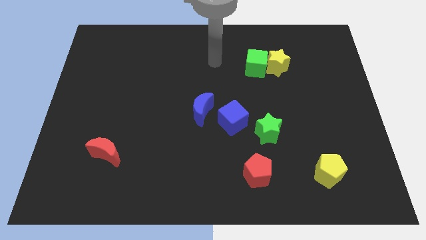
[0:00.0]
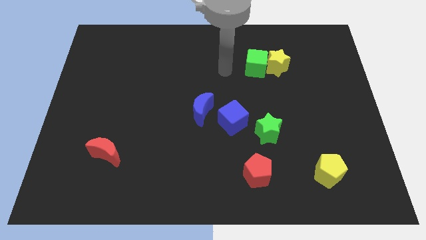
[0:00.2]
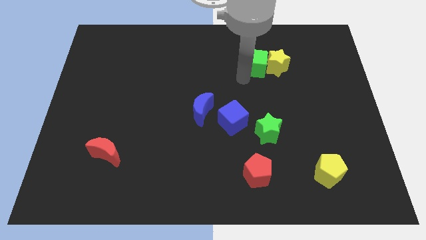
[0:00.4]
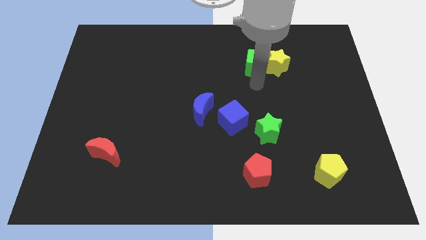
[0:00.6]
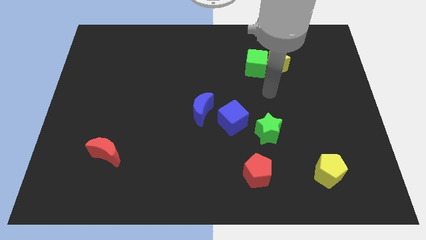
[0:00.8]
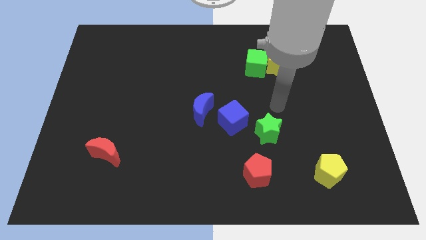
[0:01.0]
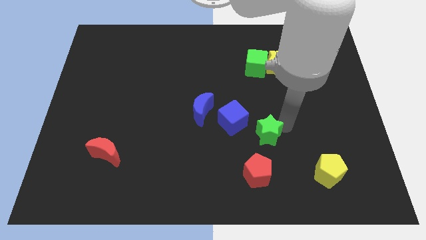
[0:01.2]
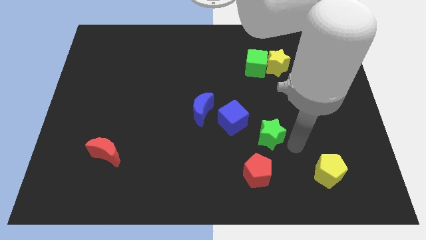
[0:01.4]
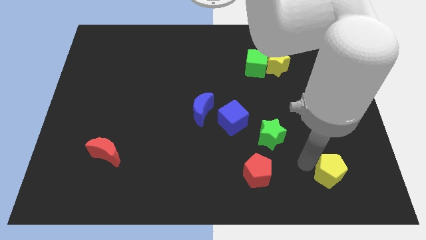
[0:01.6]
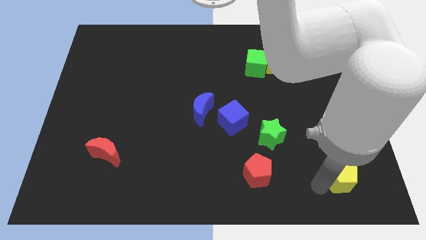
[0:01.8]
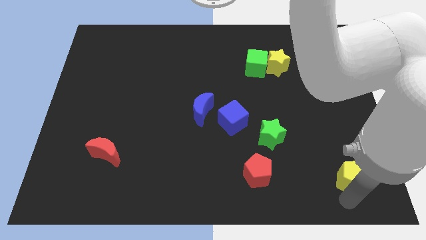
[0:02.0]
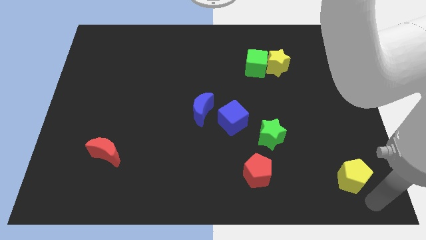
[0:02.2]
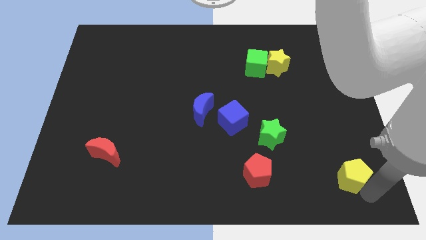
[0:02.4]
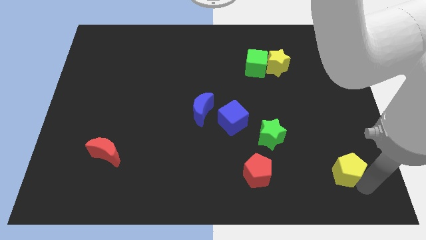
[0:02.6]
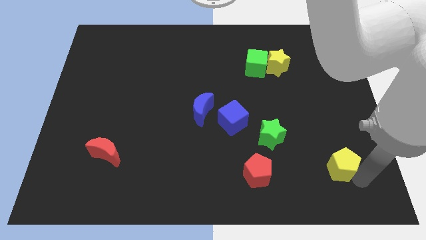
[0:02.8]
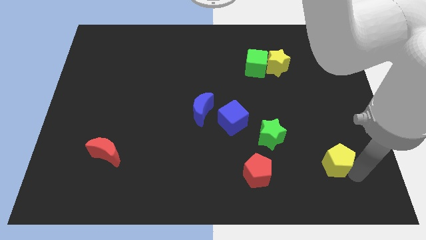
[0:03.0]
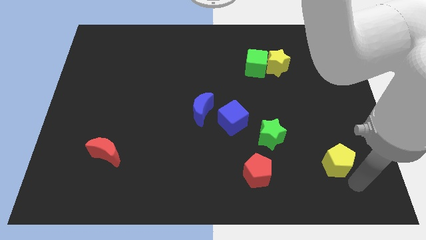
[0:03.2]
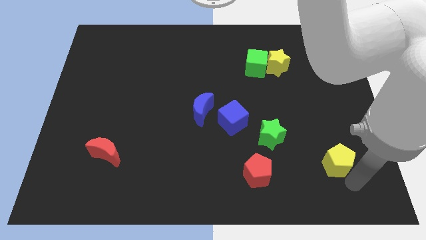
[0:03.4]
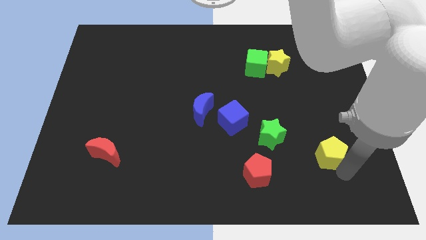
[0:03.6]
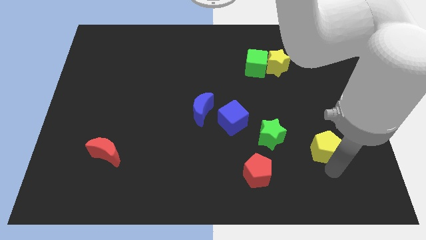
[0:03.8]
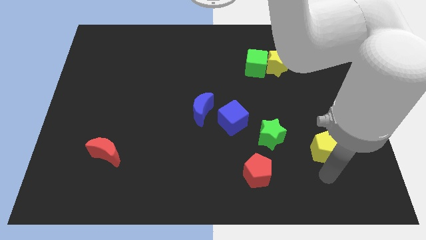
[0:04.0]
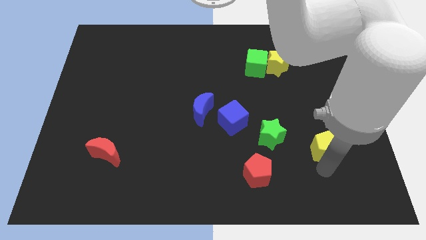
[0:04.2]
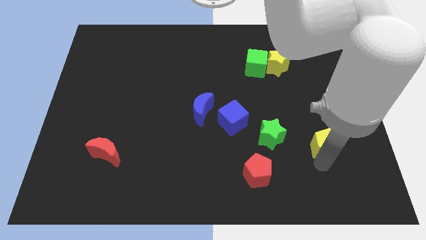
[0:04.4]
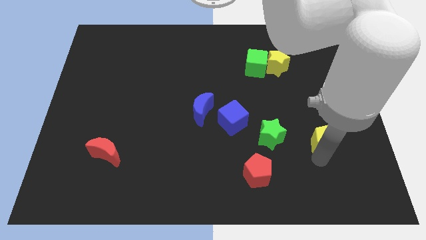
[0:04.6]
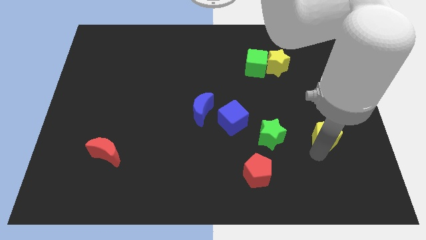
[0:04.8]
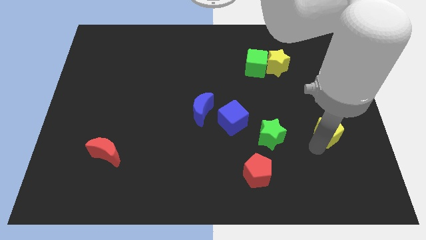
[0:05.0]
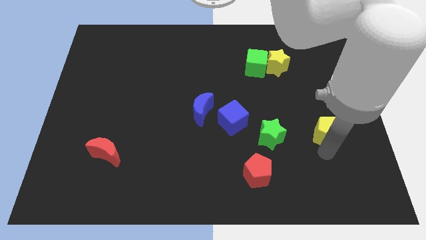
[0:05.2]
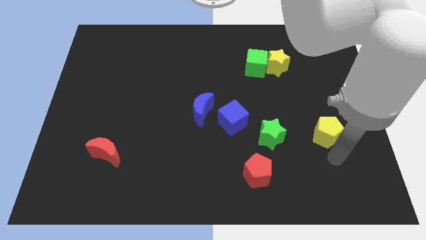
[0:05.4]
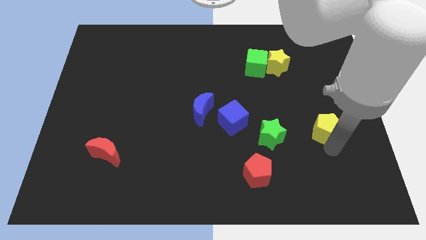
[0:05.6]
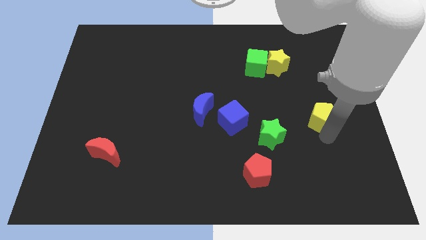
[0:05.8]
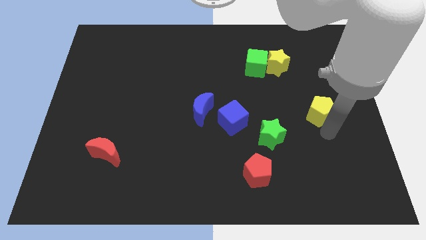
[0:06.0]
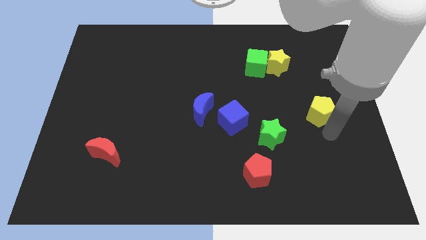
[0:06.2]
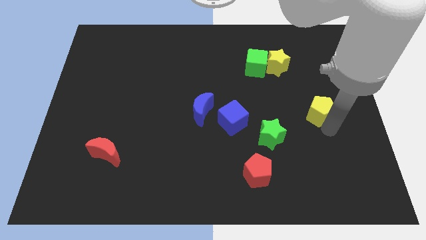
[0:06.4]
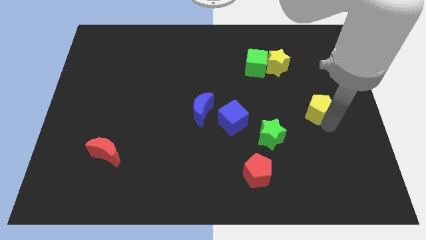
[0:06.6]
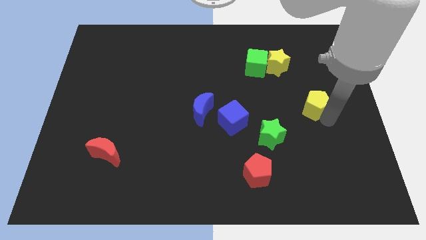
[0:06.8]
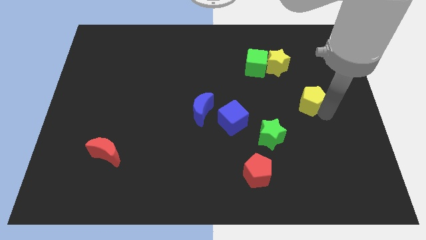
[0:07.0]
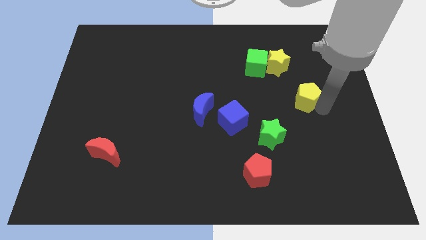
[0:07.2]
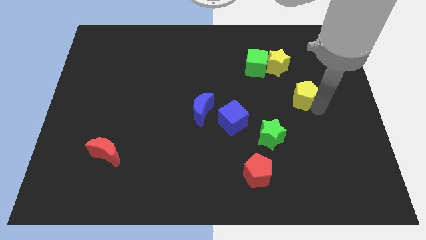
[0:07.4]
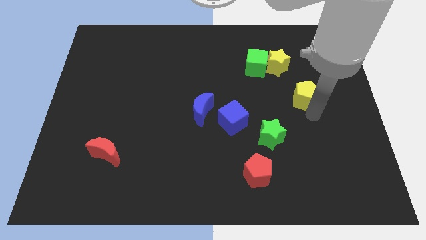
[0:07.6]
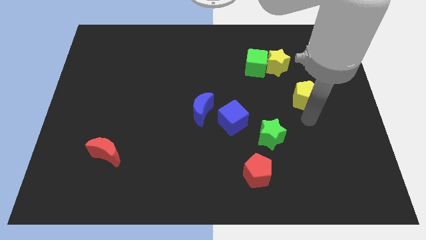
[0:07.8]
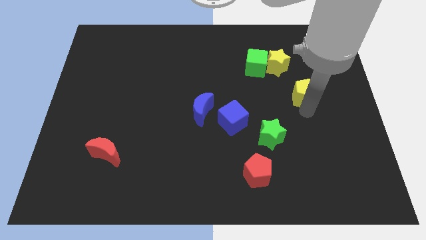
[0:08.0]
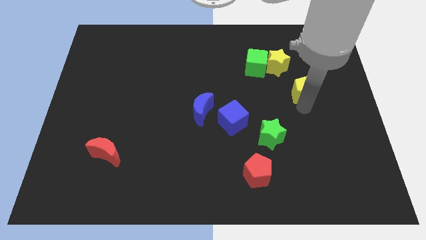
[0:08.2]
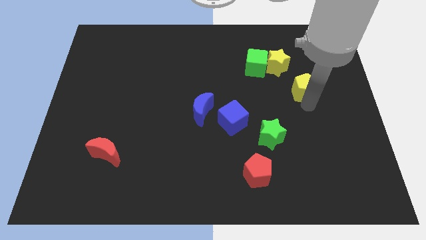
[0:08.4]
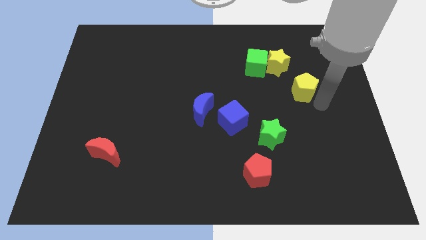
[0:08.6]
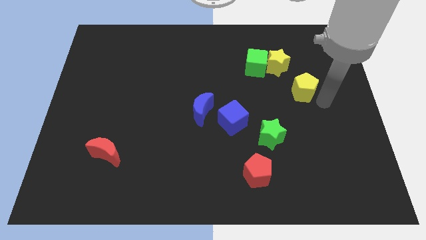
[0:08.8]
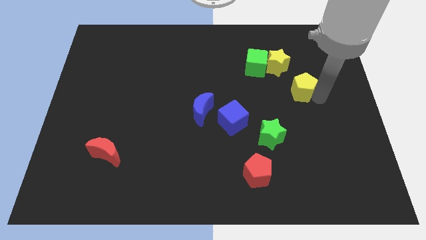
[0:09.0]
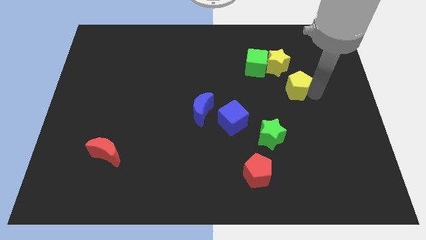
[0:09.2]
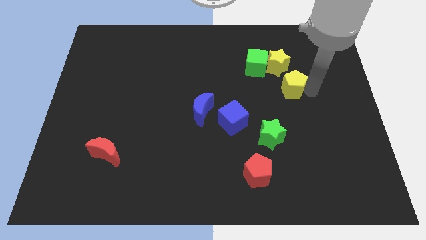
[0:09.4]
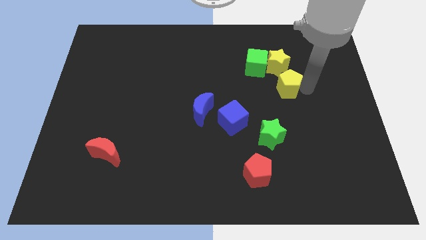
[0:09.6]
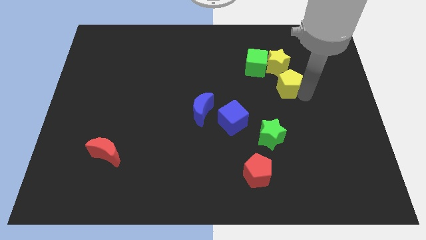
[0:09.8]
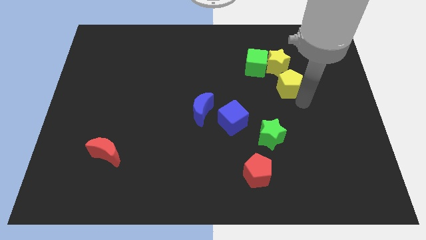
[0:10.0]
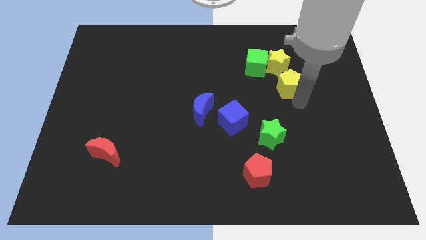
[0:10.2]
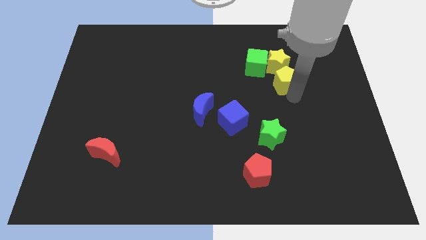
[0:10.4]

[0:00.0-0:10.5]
push the yellow pentagon close to the yellow star

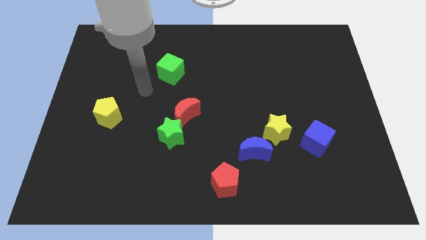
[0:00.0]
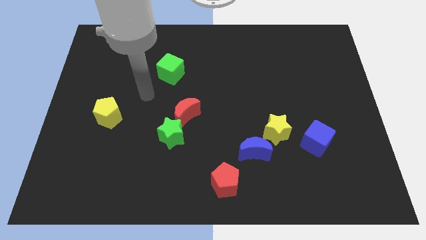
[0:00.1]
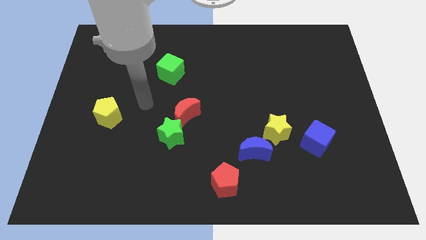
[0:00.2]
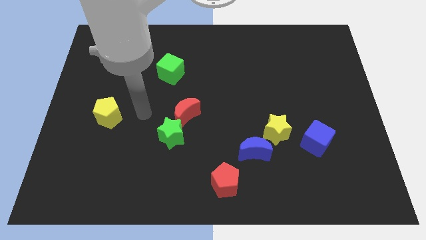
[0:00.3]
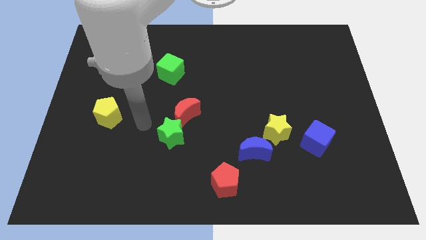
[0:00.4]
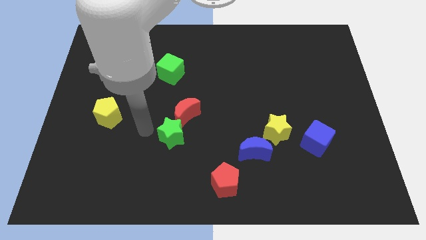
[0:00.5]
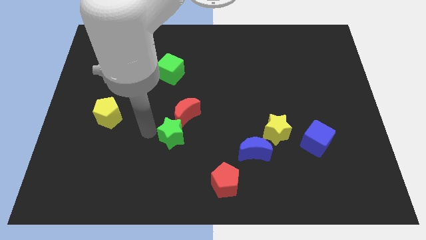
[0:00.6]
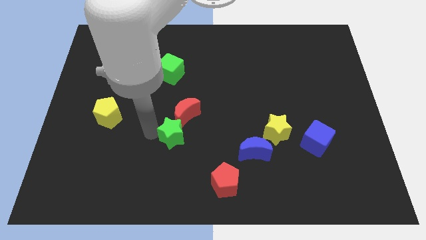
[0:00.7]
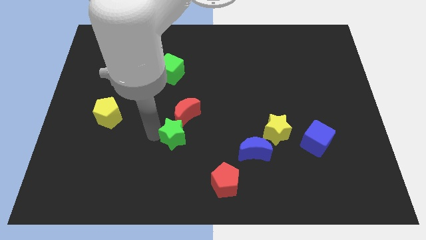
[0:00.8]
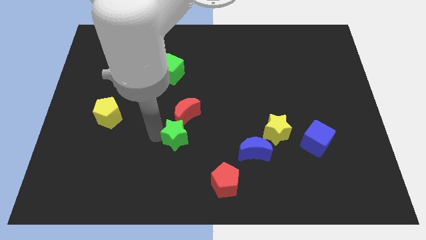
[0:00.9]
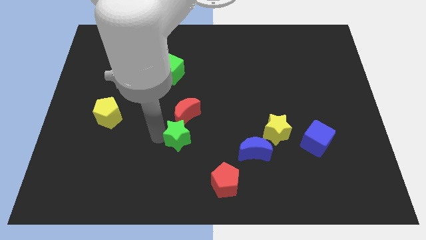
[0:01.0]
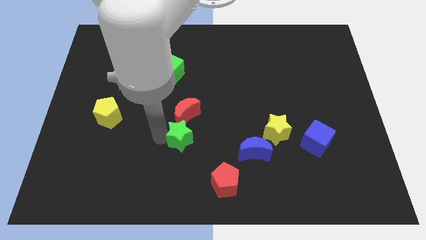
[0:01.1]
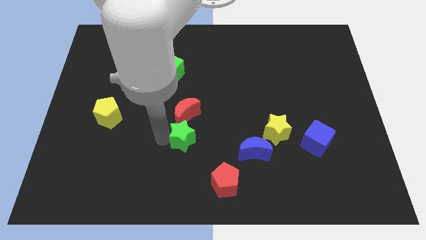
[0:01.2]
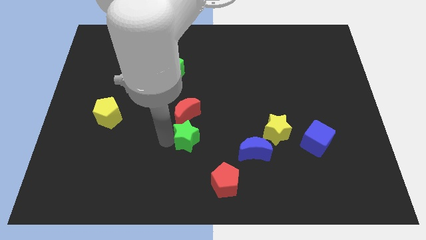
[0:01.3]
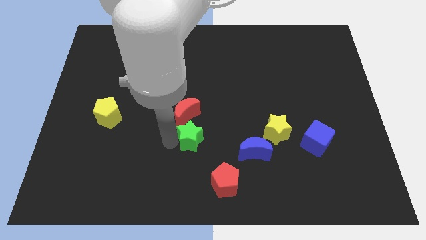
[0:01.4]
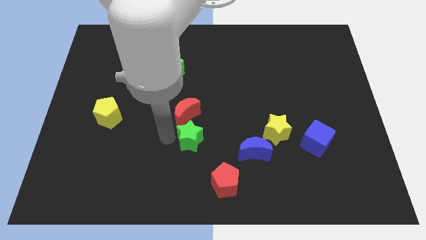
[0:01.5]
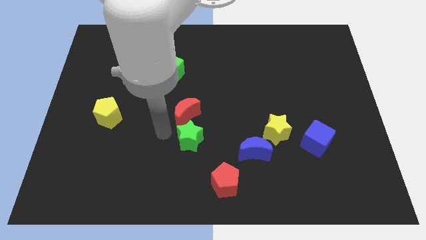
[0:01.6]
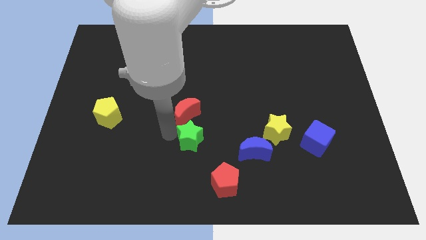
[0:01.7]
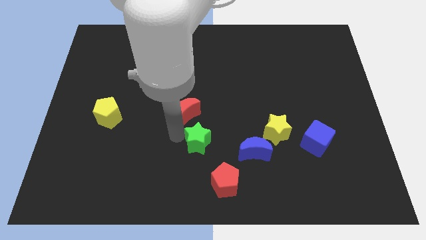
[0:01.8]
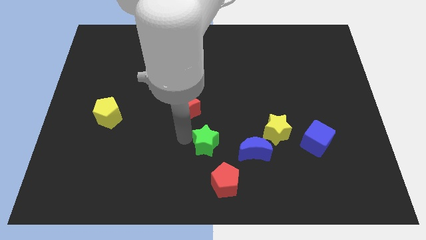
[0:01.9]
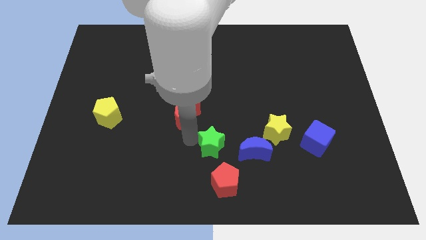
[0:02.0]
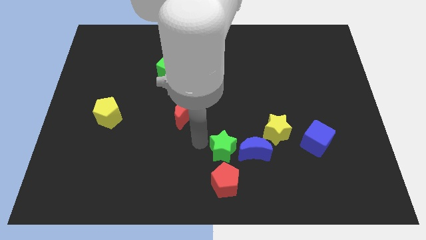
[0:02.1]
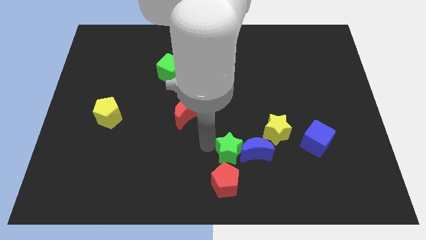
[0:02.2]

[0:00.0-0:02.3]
slide the green star close to the blue moon
